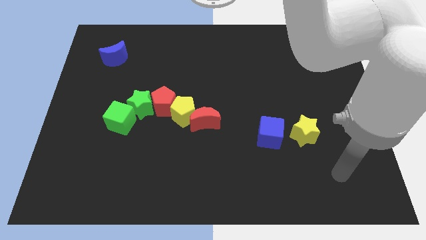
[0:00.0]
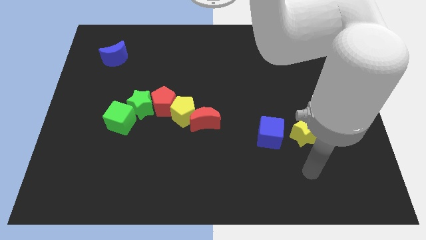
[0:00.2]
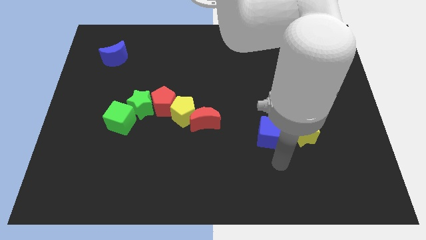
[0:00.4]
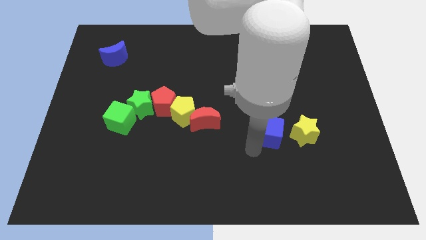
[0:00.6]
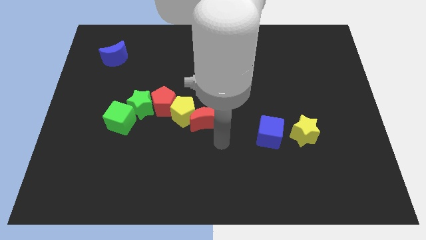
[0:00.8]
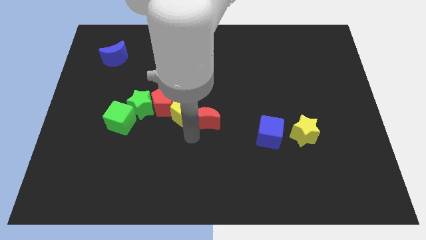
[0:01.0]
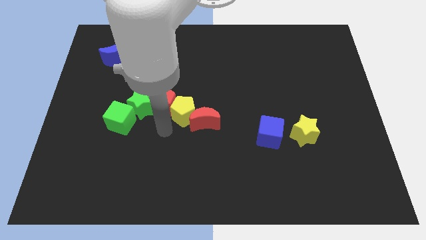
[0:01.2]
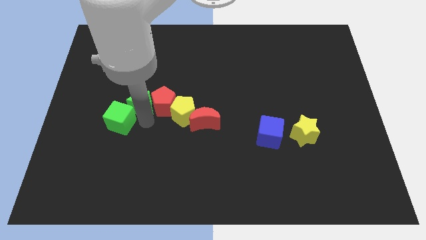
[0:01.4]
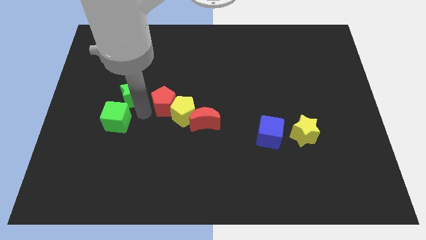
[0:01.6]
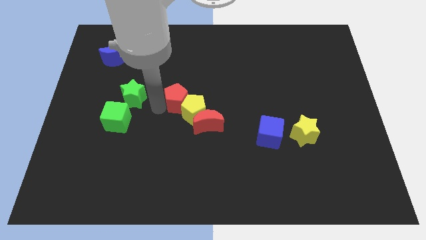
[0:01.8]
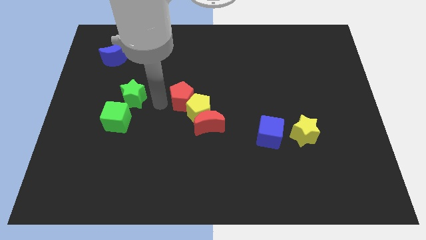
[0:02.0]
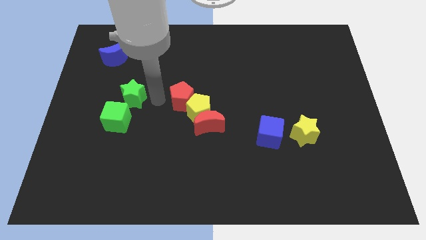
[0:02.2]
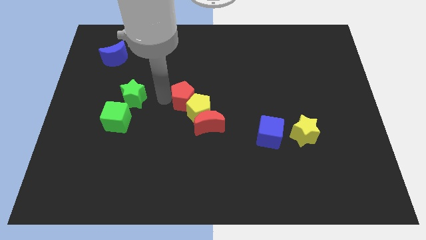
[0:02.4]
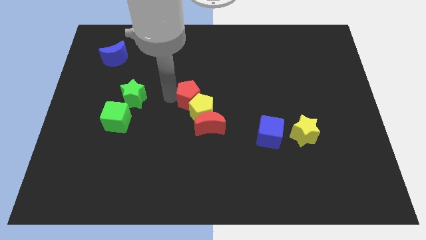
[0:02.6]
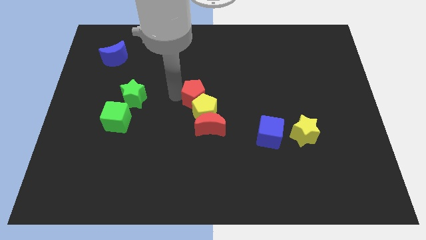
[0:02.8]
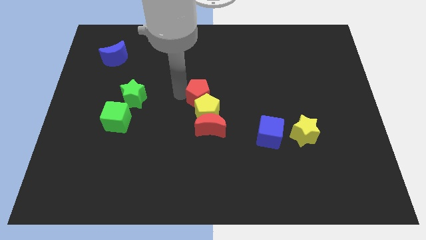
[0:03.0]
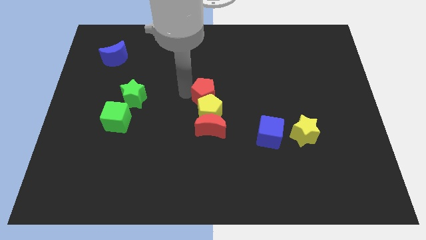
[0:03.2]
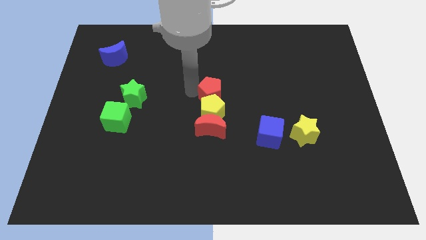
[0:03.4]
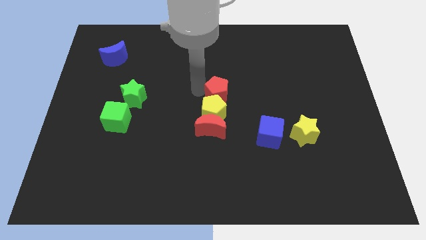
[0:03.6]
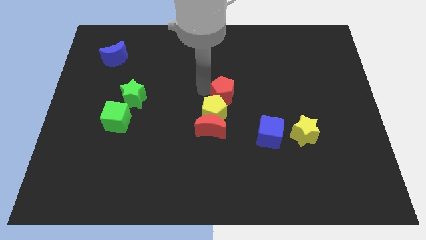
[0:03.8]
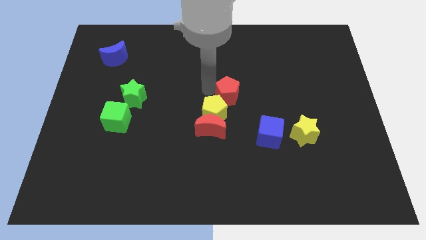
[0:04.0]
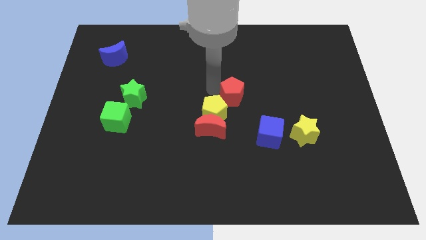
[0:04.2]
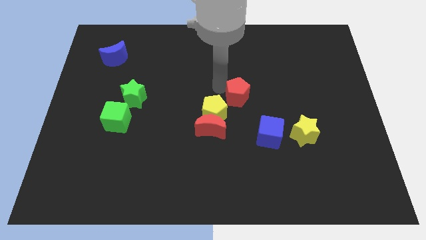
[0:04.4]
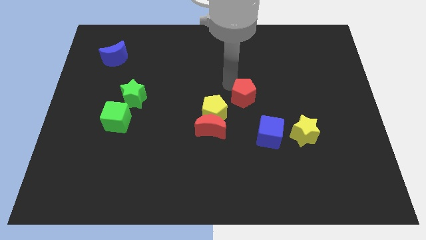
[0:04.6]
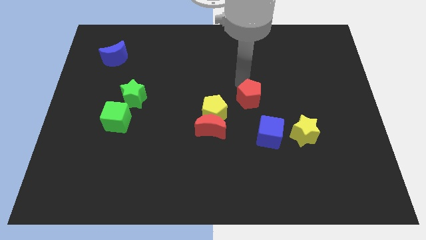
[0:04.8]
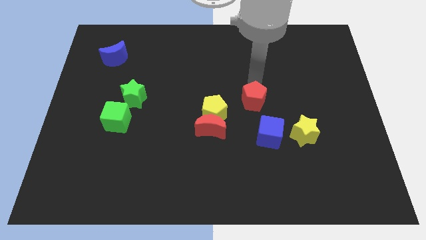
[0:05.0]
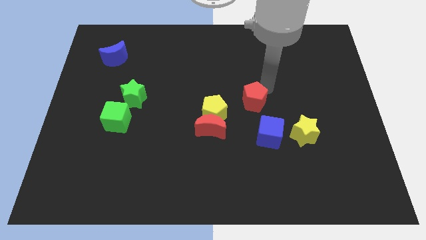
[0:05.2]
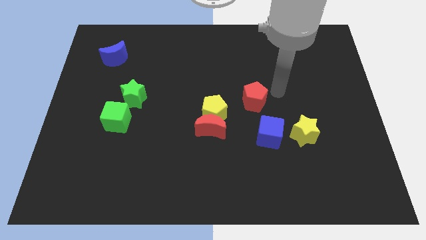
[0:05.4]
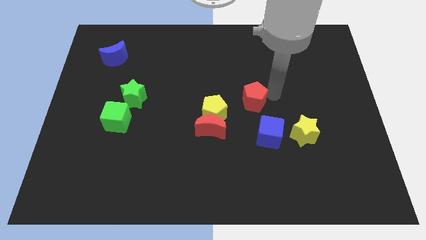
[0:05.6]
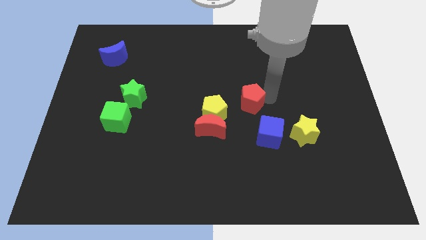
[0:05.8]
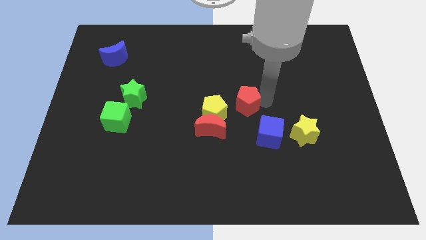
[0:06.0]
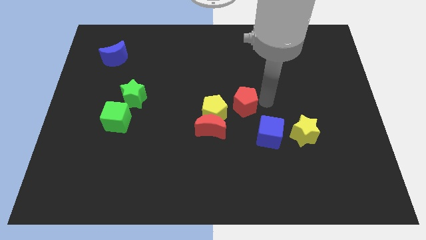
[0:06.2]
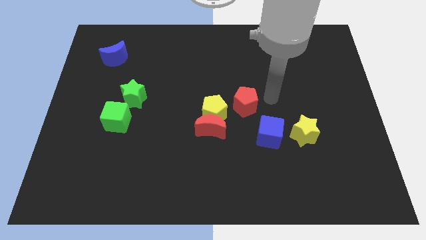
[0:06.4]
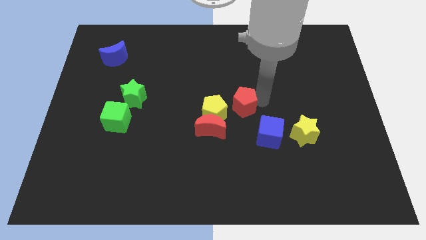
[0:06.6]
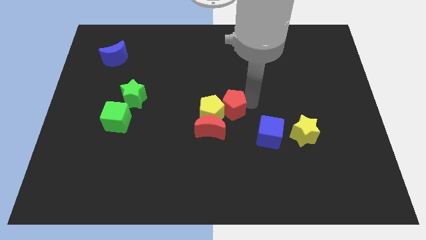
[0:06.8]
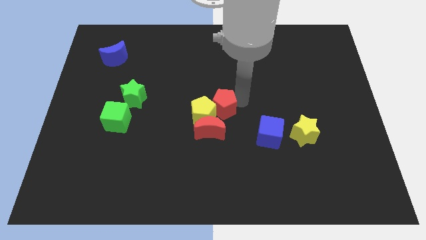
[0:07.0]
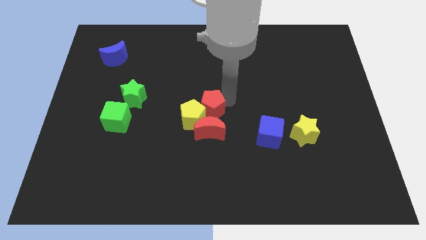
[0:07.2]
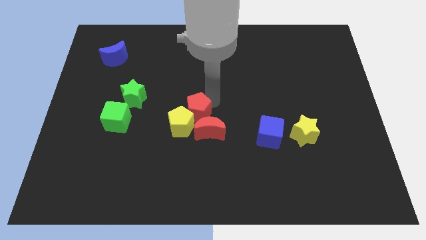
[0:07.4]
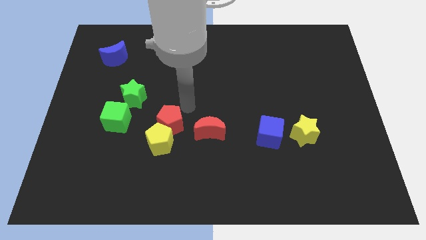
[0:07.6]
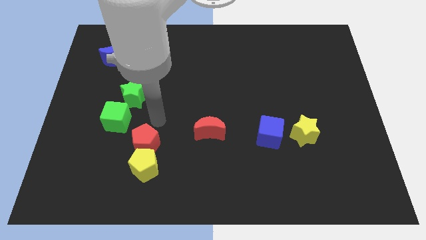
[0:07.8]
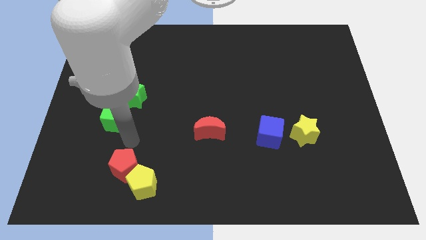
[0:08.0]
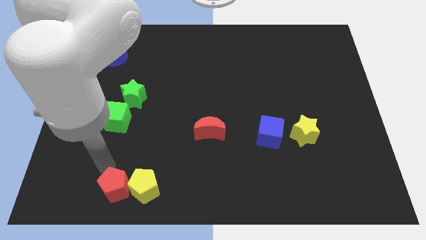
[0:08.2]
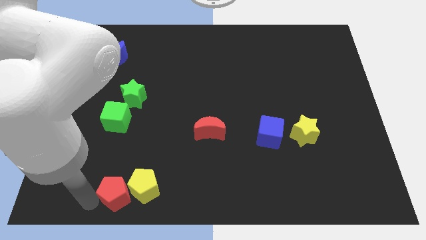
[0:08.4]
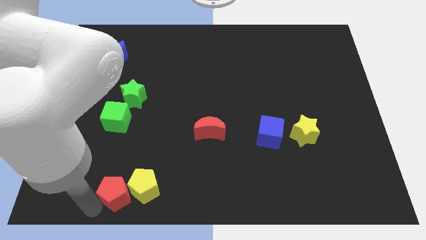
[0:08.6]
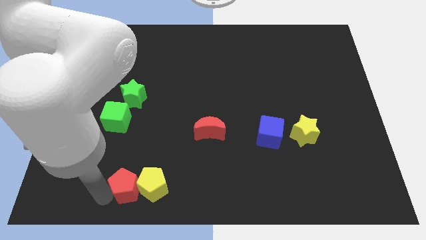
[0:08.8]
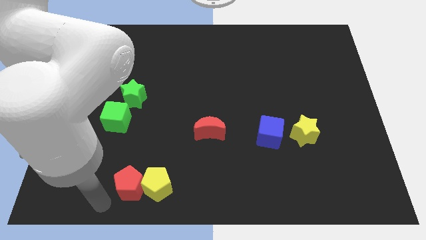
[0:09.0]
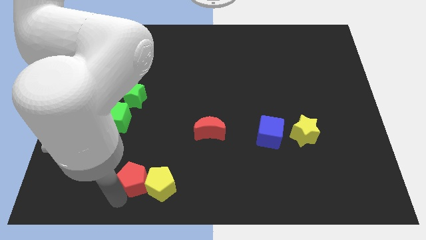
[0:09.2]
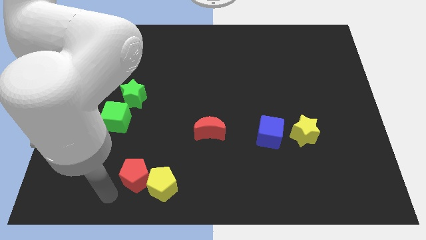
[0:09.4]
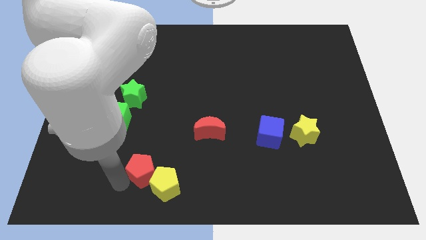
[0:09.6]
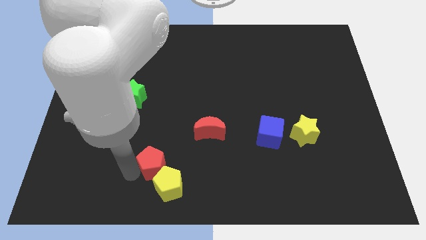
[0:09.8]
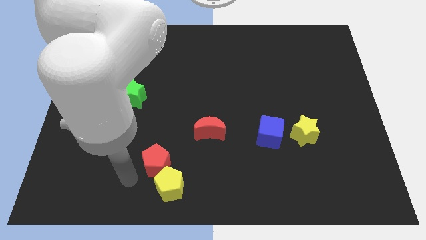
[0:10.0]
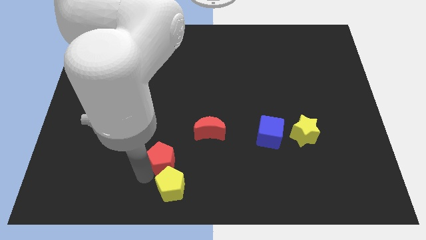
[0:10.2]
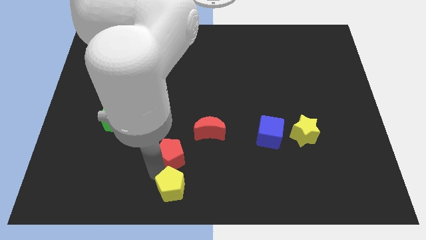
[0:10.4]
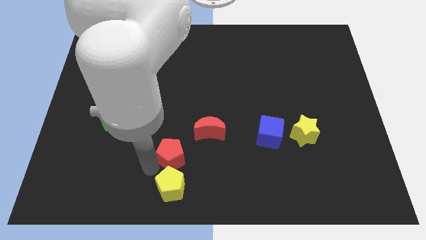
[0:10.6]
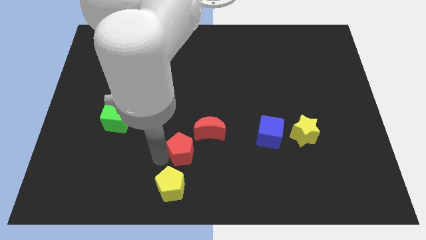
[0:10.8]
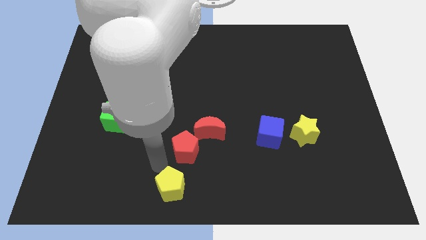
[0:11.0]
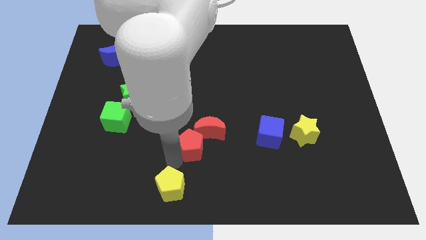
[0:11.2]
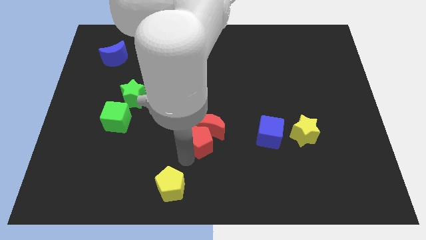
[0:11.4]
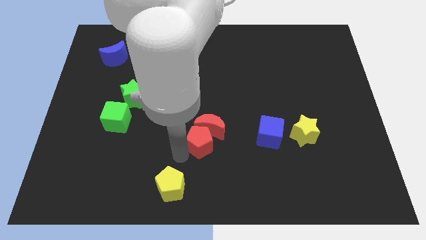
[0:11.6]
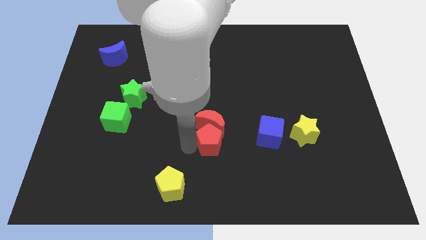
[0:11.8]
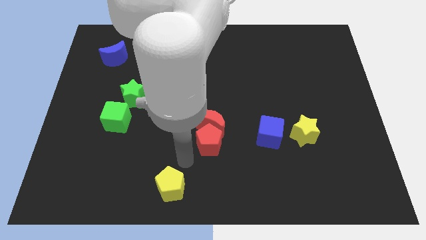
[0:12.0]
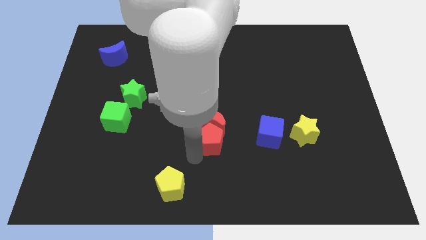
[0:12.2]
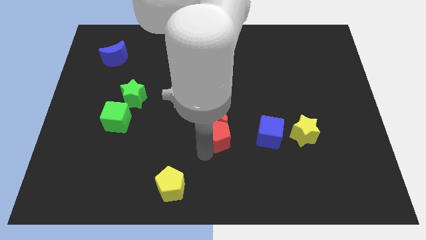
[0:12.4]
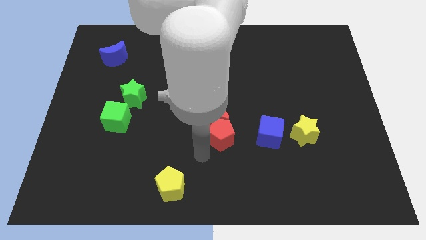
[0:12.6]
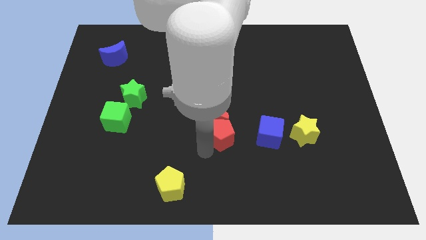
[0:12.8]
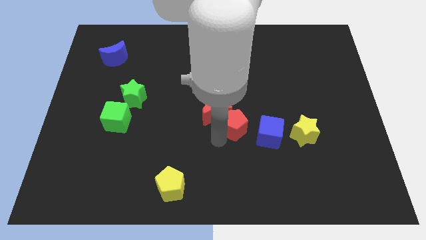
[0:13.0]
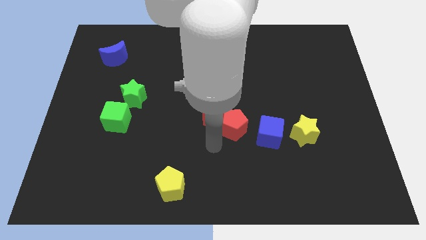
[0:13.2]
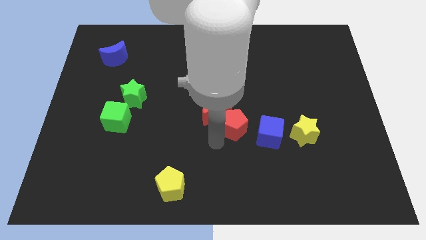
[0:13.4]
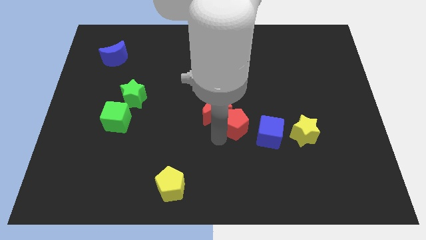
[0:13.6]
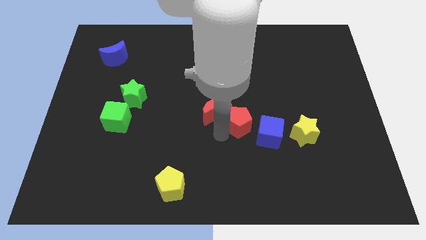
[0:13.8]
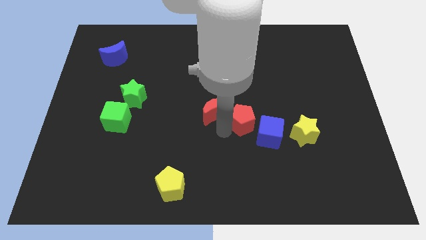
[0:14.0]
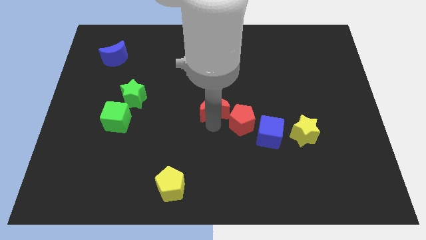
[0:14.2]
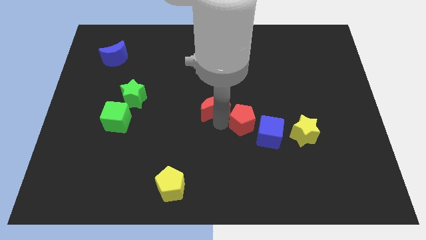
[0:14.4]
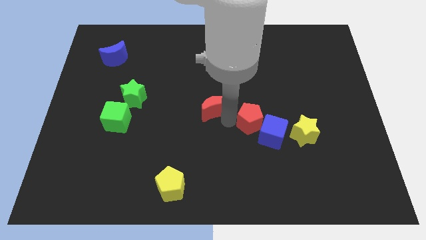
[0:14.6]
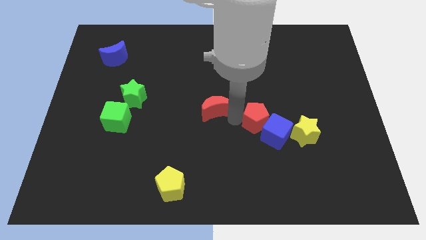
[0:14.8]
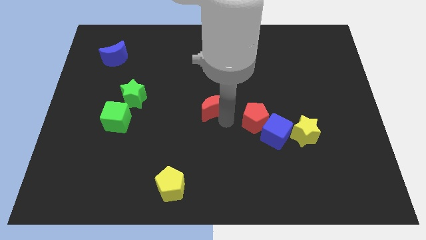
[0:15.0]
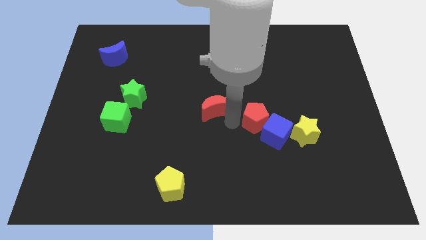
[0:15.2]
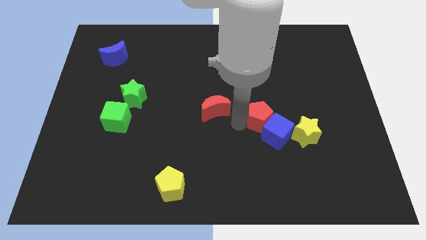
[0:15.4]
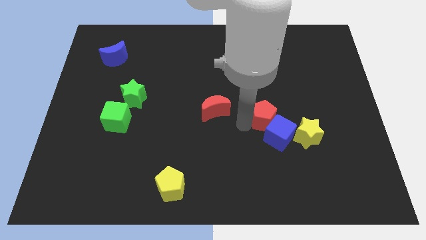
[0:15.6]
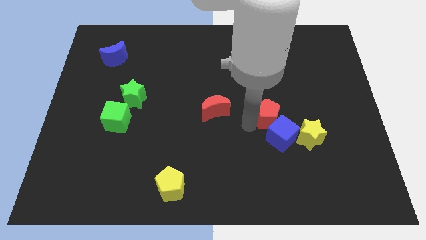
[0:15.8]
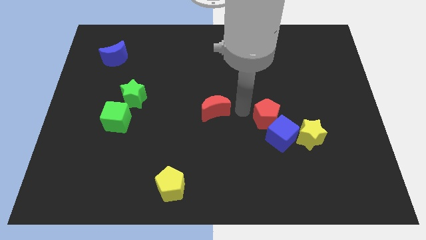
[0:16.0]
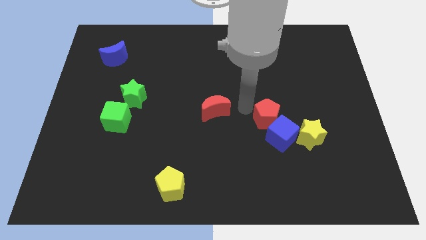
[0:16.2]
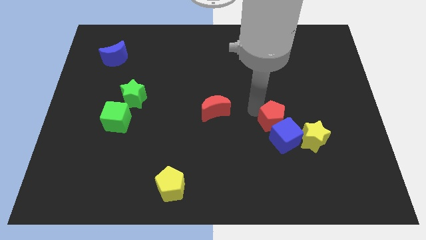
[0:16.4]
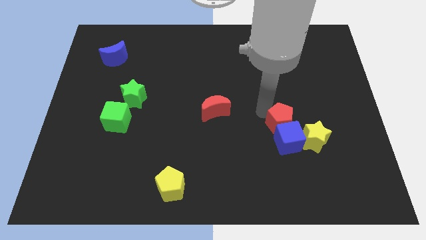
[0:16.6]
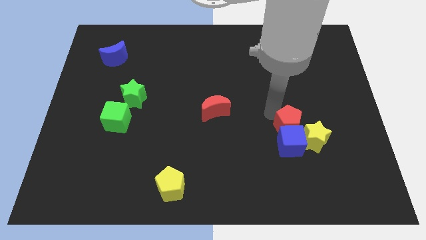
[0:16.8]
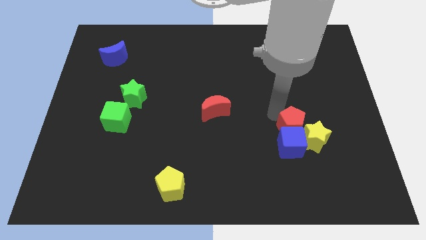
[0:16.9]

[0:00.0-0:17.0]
put the red pentagon close to the yellow star
